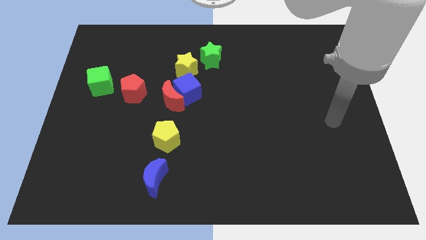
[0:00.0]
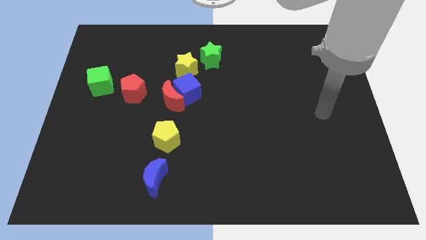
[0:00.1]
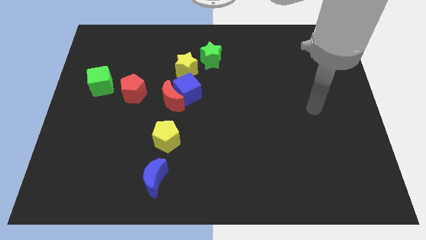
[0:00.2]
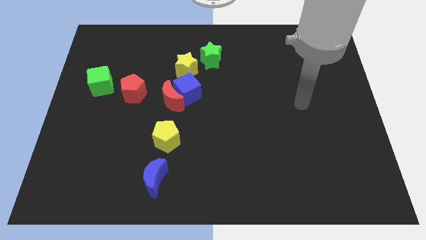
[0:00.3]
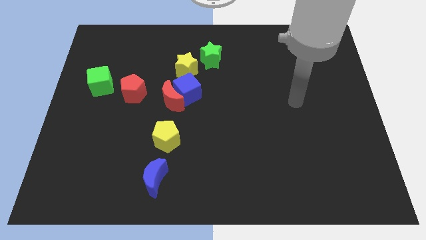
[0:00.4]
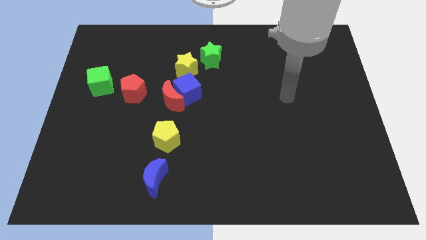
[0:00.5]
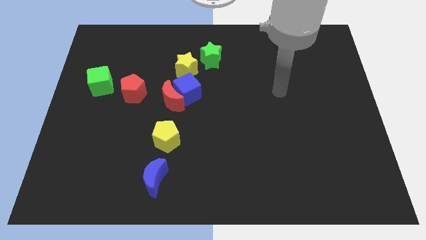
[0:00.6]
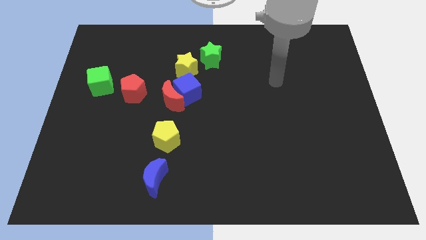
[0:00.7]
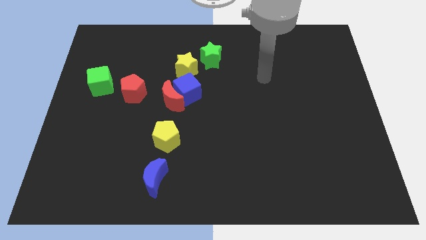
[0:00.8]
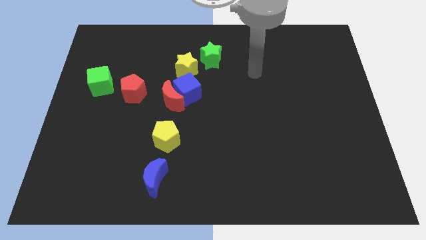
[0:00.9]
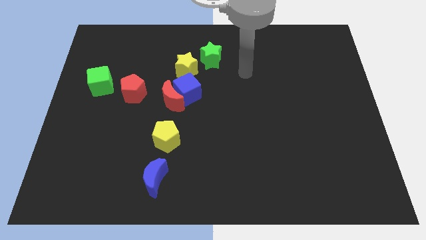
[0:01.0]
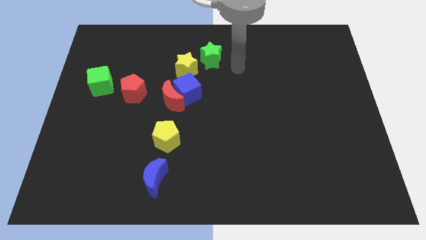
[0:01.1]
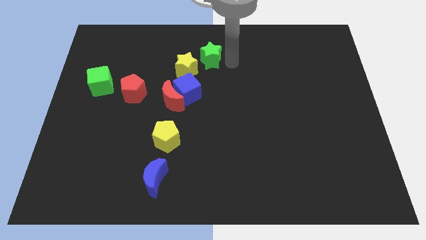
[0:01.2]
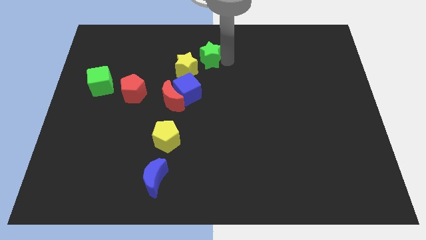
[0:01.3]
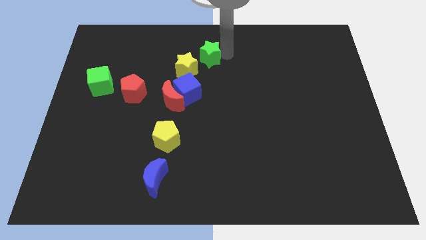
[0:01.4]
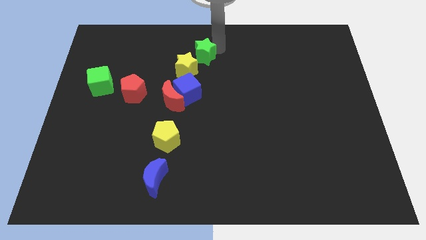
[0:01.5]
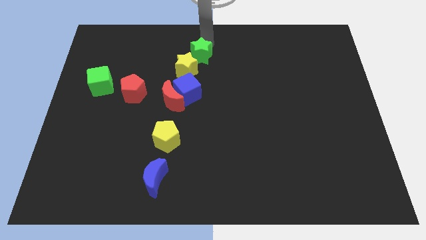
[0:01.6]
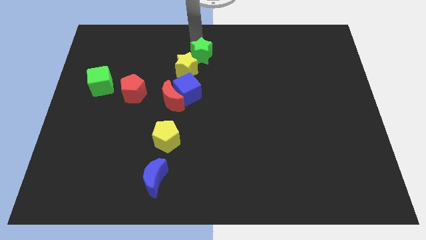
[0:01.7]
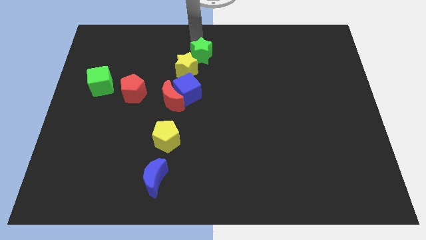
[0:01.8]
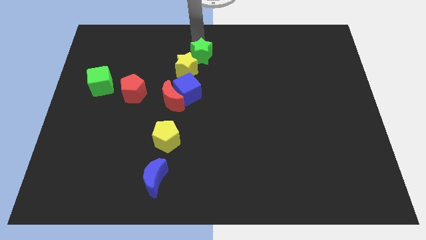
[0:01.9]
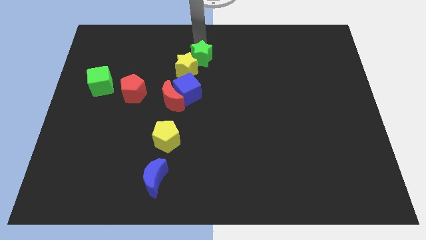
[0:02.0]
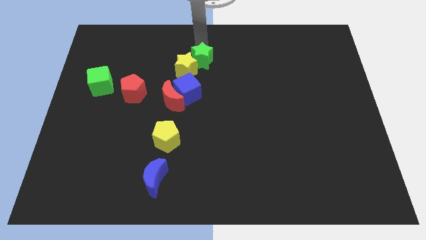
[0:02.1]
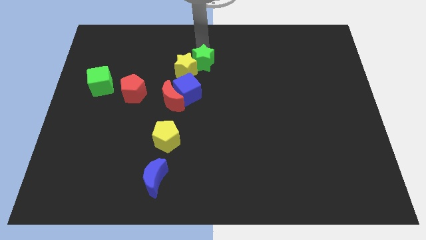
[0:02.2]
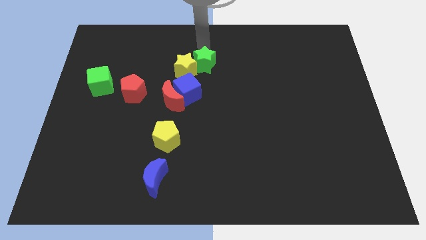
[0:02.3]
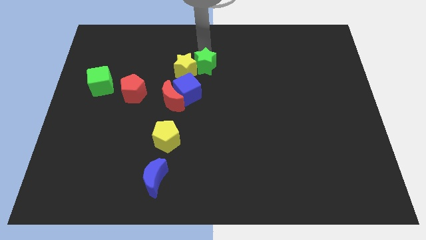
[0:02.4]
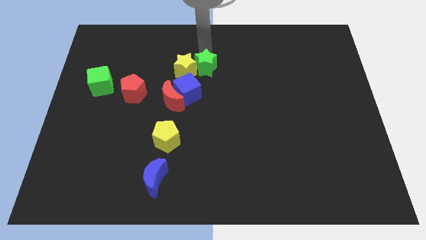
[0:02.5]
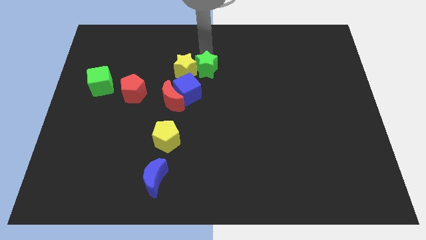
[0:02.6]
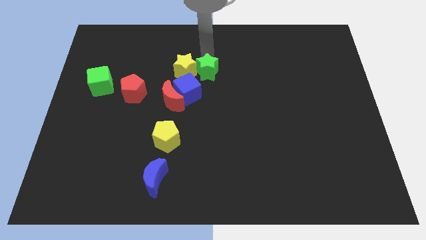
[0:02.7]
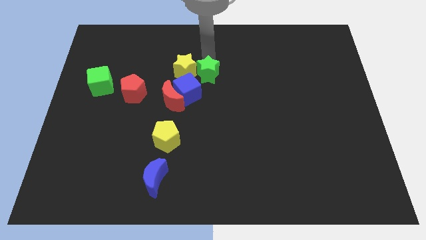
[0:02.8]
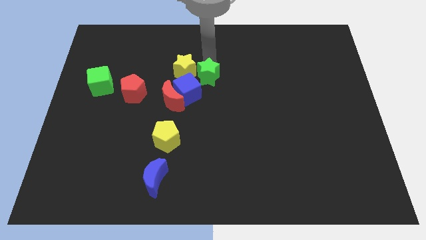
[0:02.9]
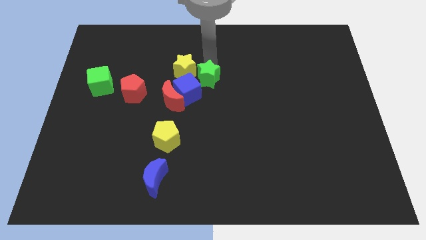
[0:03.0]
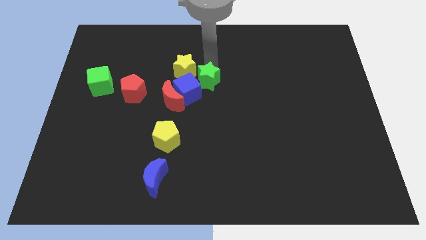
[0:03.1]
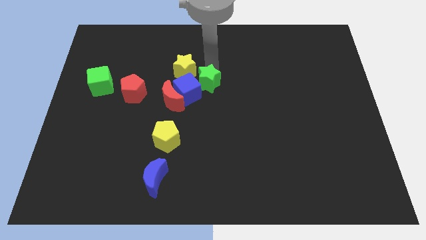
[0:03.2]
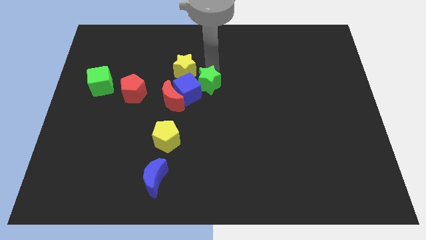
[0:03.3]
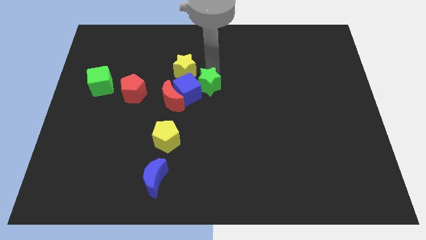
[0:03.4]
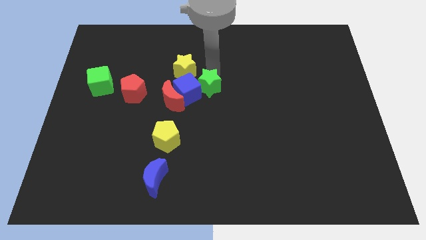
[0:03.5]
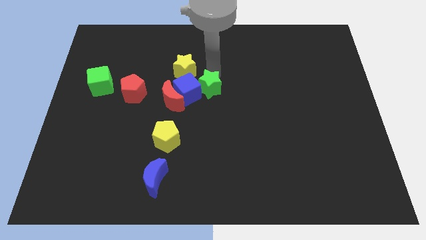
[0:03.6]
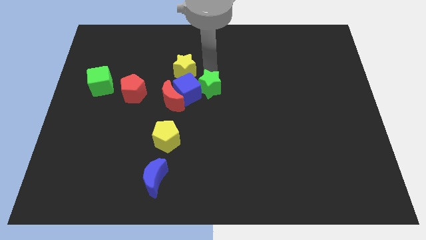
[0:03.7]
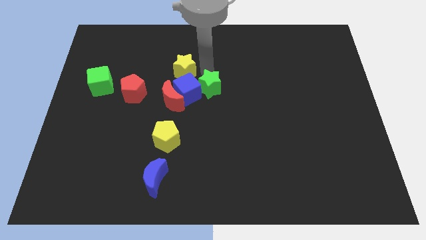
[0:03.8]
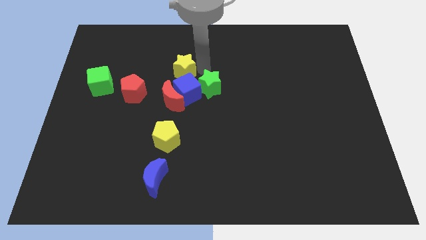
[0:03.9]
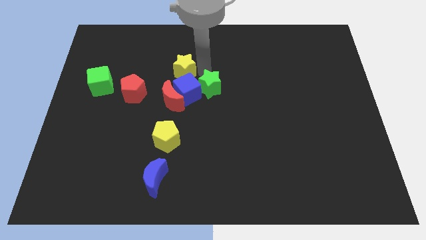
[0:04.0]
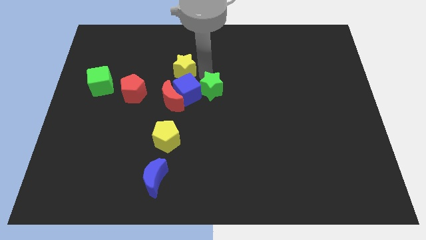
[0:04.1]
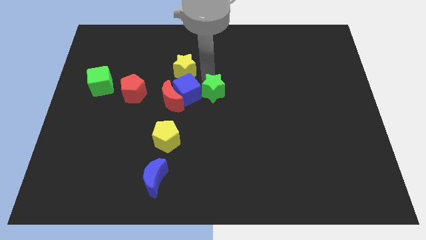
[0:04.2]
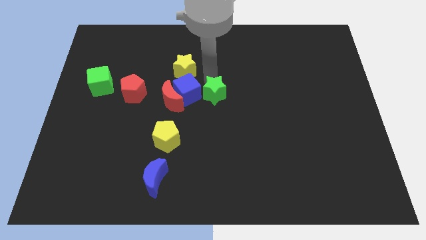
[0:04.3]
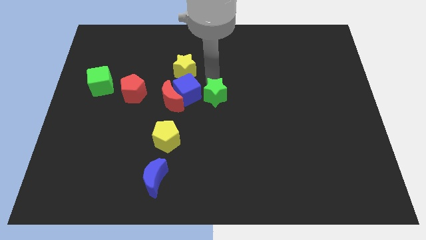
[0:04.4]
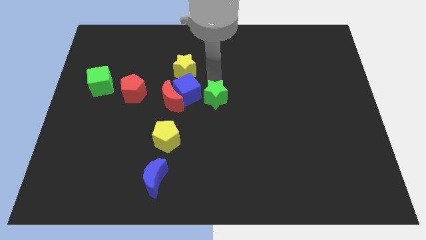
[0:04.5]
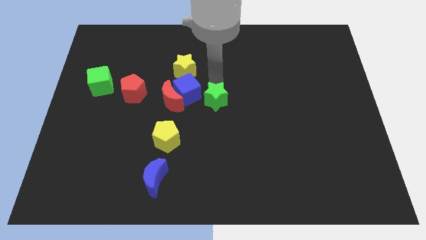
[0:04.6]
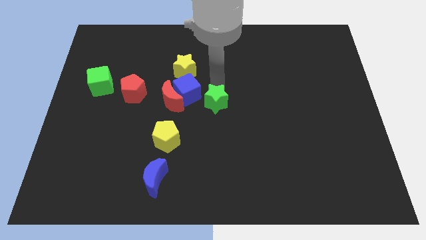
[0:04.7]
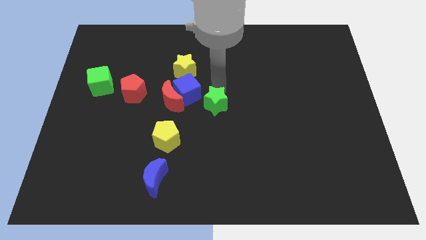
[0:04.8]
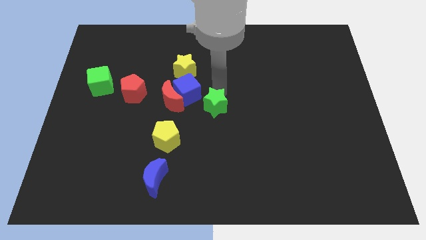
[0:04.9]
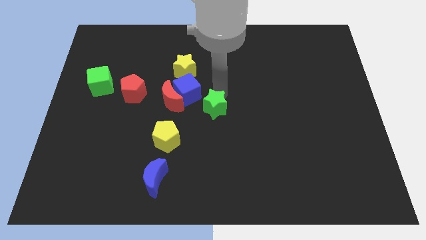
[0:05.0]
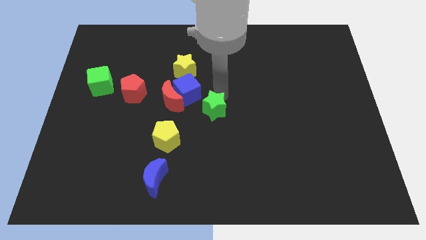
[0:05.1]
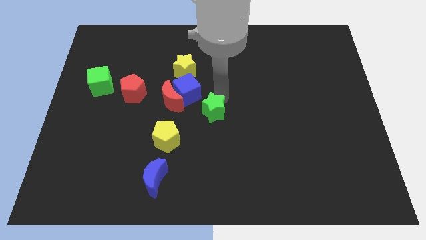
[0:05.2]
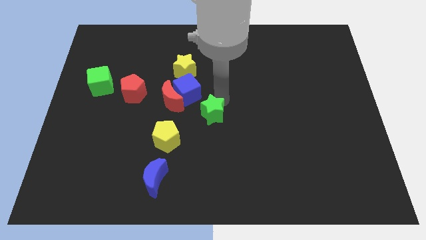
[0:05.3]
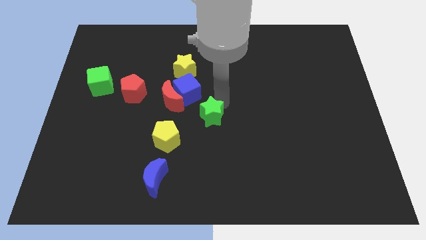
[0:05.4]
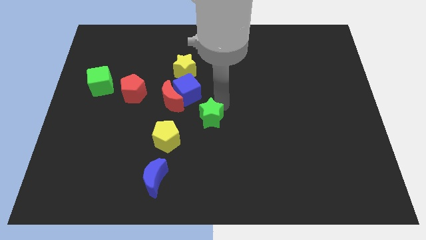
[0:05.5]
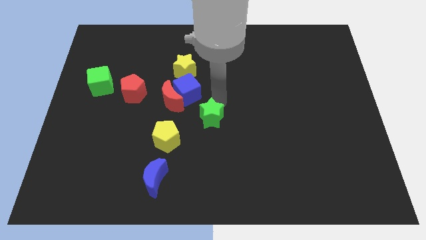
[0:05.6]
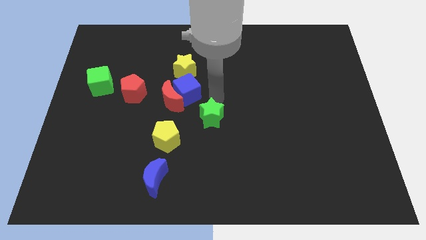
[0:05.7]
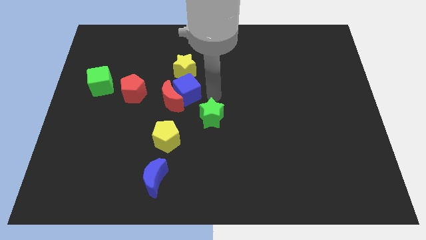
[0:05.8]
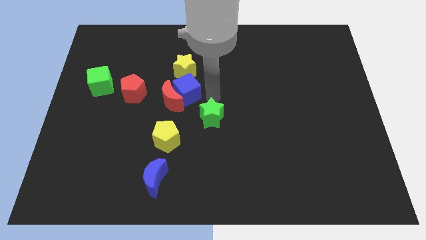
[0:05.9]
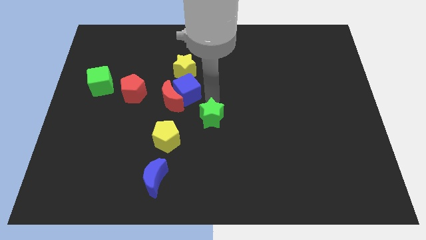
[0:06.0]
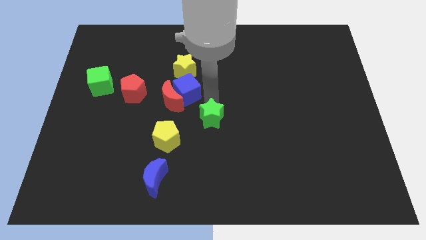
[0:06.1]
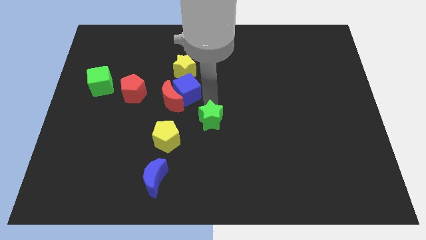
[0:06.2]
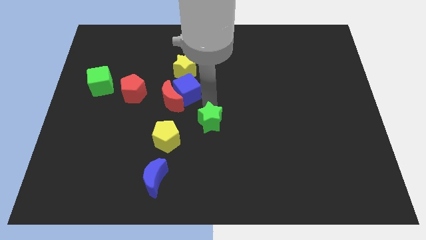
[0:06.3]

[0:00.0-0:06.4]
slide the green star down

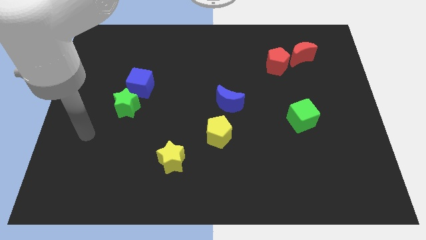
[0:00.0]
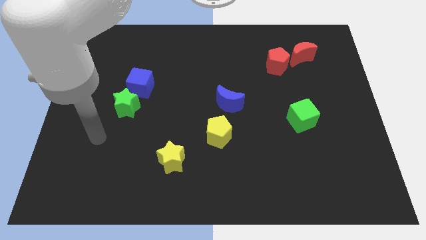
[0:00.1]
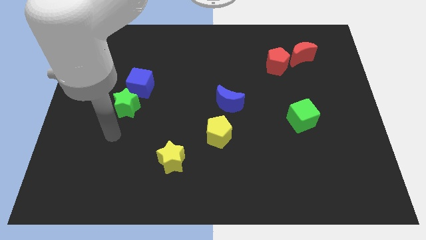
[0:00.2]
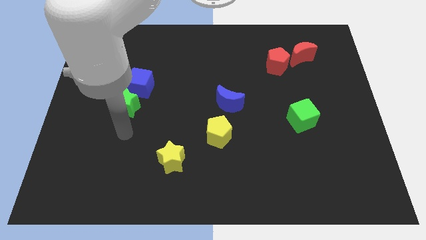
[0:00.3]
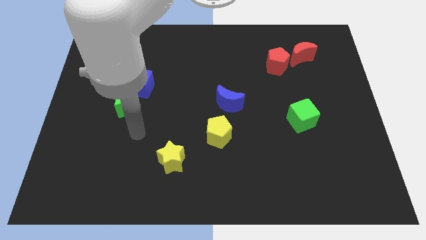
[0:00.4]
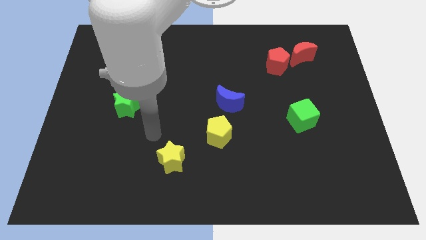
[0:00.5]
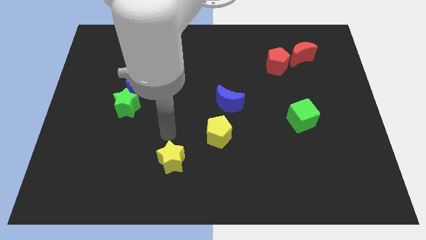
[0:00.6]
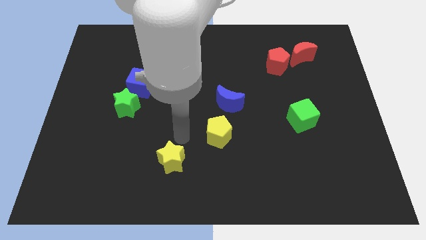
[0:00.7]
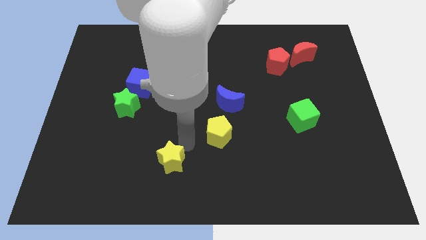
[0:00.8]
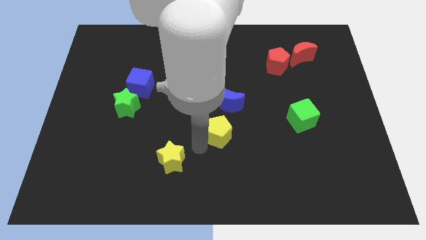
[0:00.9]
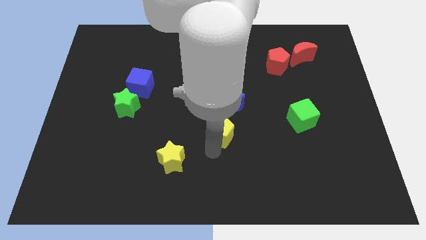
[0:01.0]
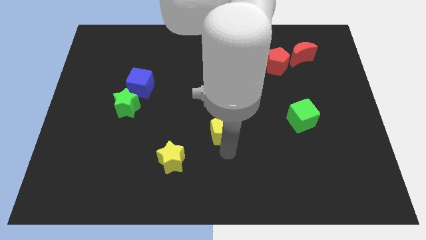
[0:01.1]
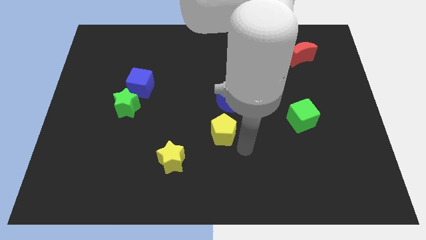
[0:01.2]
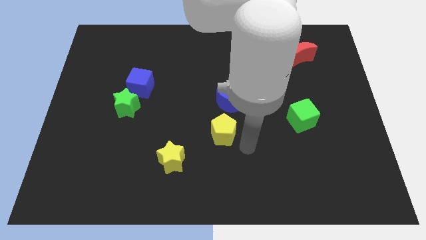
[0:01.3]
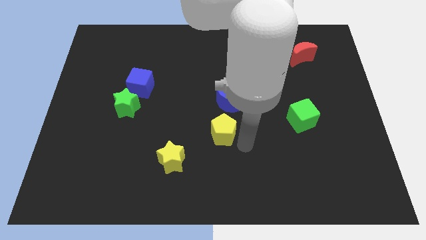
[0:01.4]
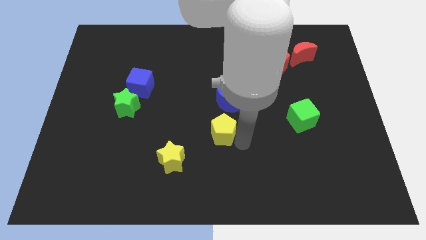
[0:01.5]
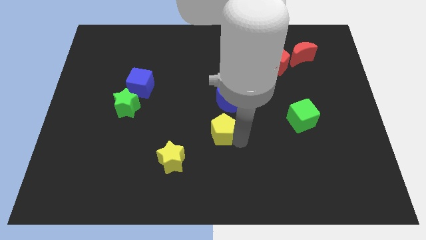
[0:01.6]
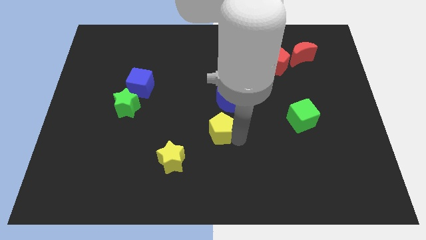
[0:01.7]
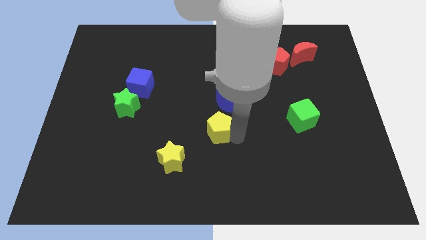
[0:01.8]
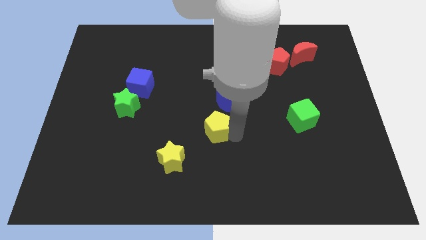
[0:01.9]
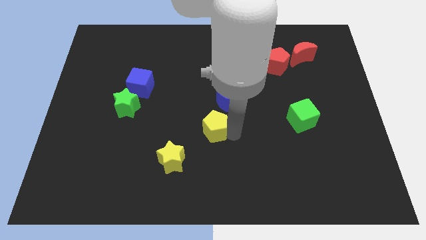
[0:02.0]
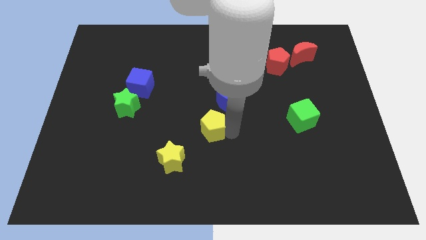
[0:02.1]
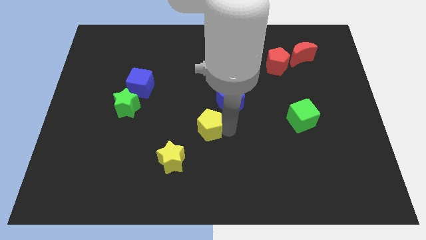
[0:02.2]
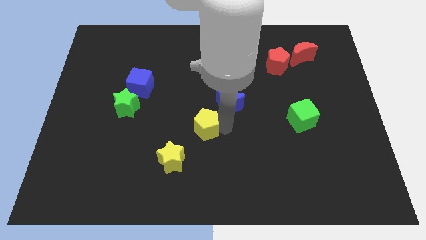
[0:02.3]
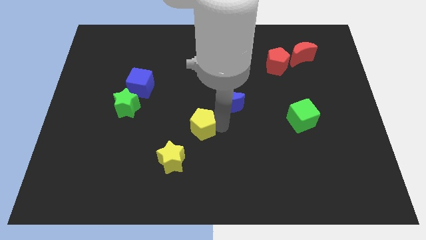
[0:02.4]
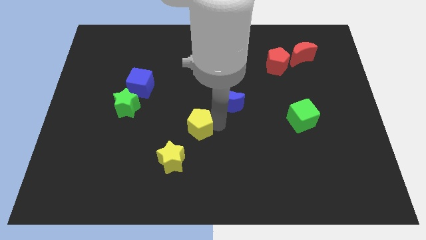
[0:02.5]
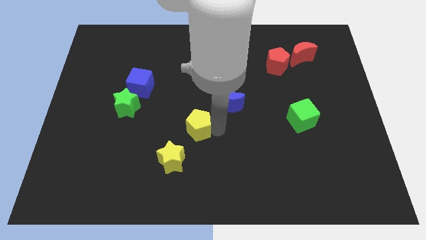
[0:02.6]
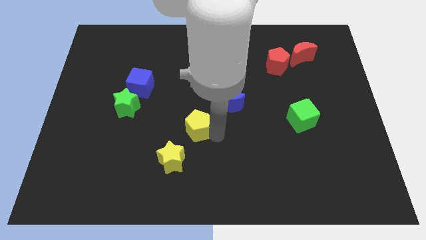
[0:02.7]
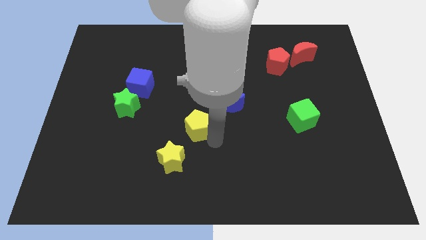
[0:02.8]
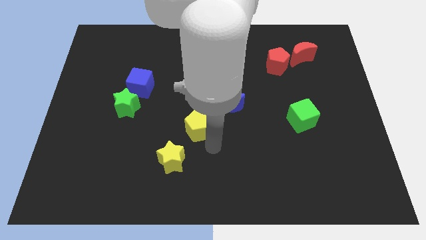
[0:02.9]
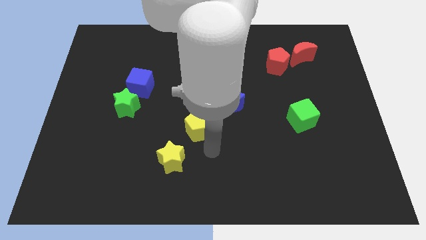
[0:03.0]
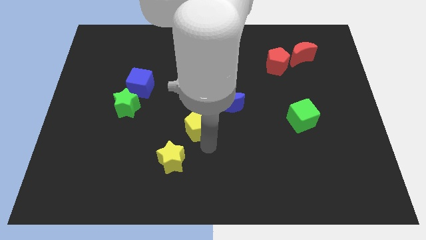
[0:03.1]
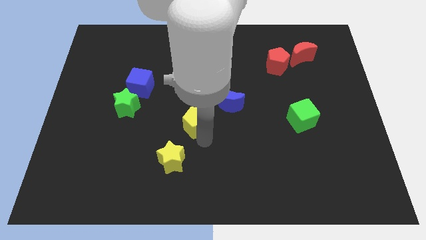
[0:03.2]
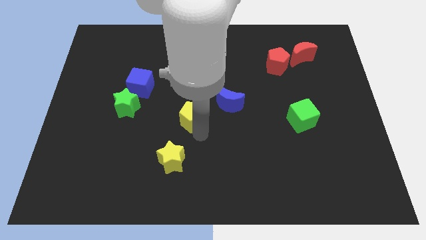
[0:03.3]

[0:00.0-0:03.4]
slightly push the yellow pentagon up and left diagonally
